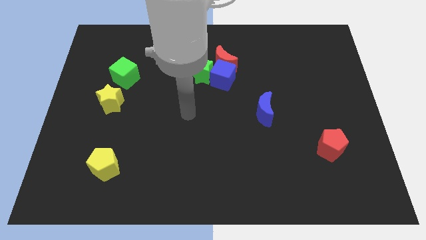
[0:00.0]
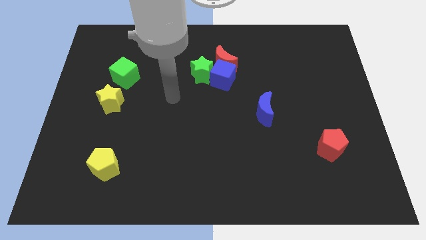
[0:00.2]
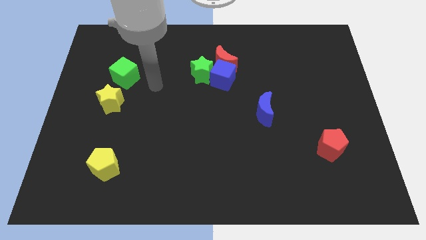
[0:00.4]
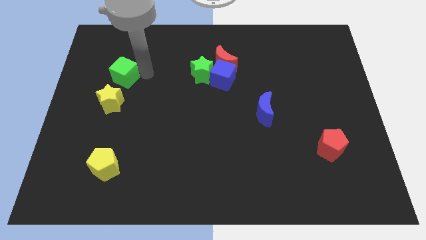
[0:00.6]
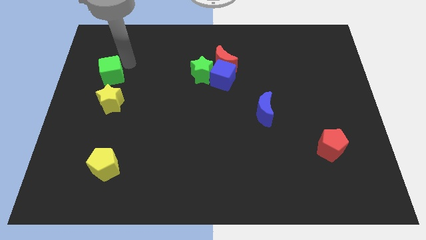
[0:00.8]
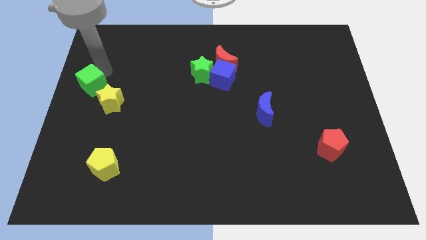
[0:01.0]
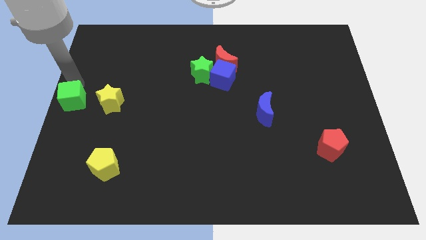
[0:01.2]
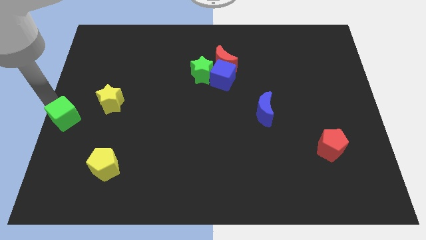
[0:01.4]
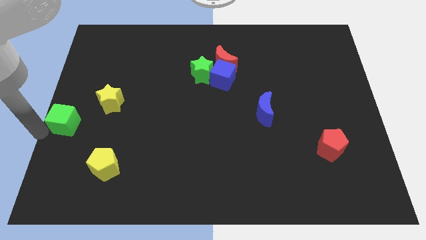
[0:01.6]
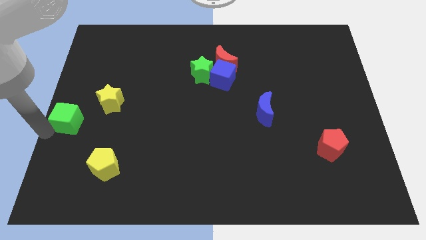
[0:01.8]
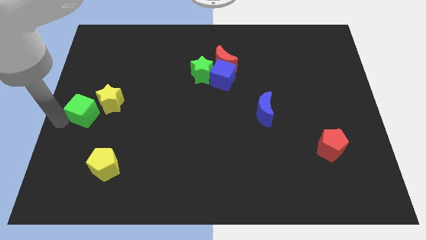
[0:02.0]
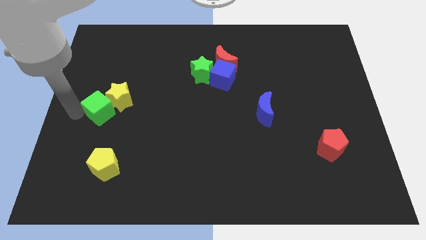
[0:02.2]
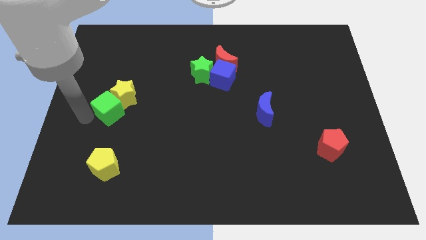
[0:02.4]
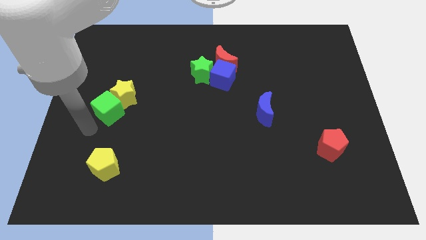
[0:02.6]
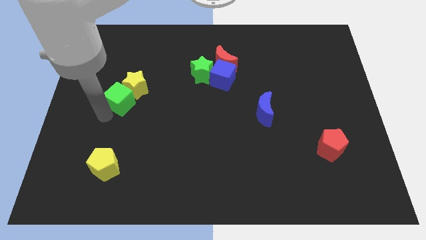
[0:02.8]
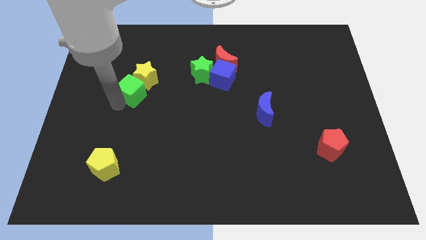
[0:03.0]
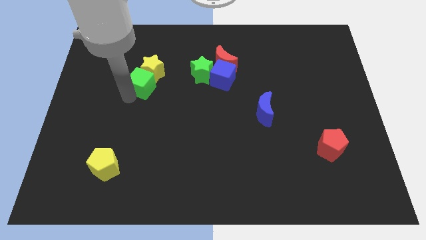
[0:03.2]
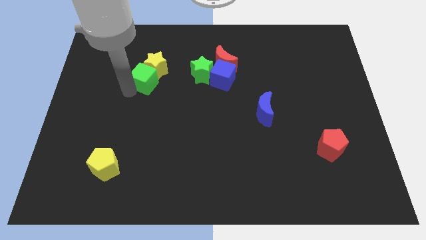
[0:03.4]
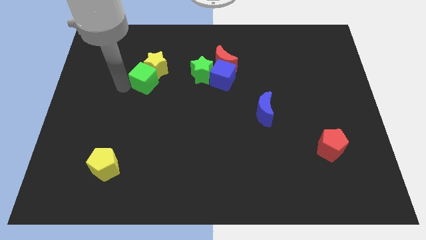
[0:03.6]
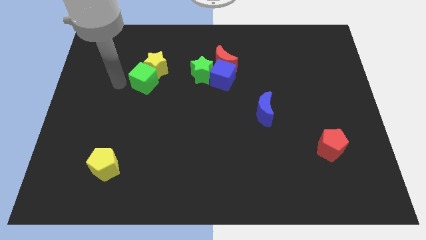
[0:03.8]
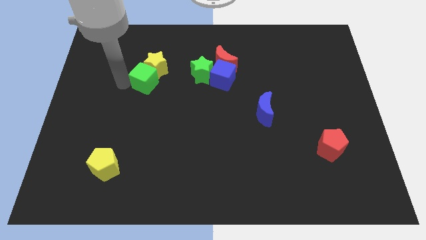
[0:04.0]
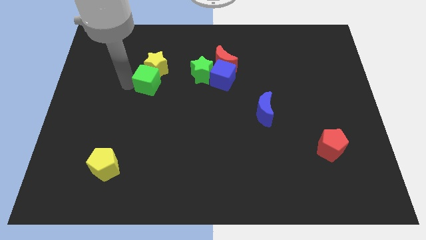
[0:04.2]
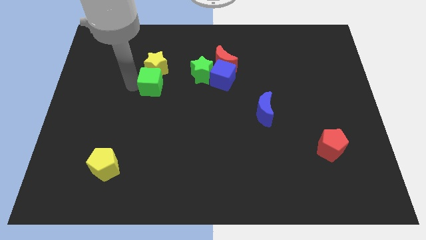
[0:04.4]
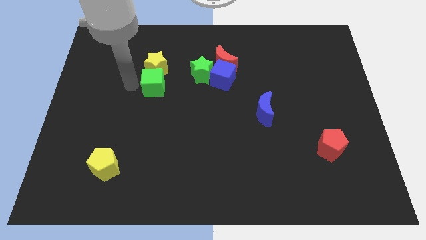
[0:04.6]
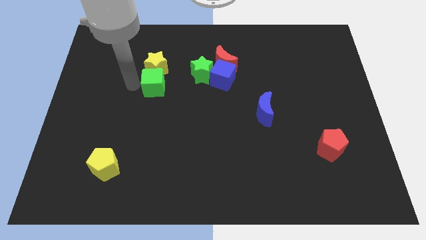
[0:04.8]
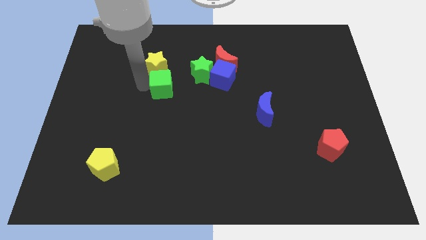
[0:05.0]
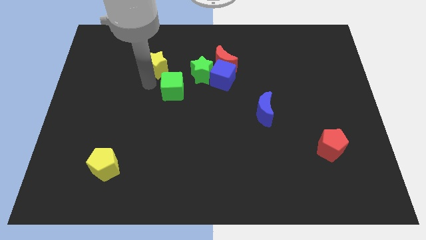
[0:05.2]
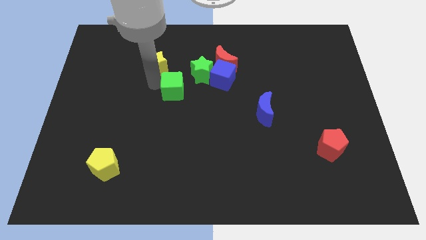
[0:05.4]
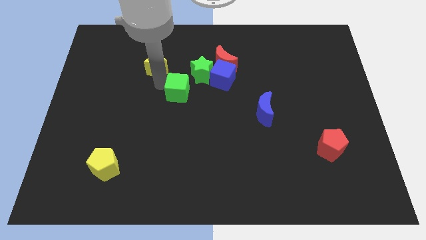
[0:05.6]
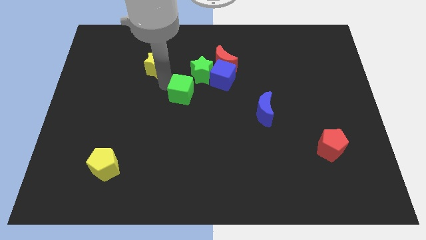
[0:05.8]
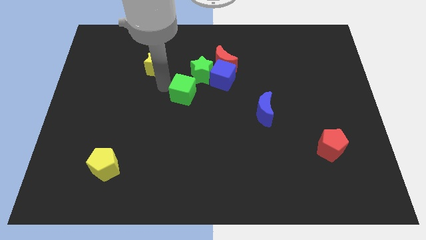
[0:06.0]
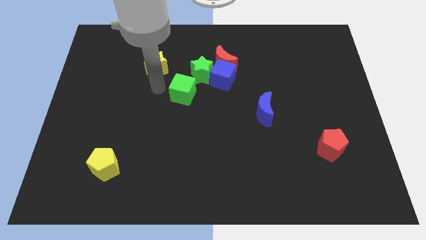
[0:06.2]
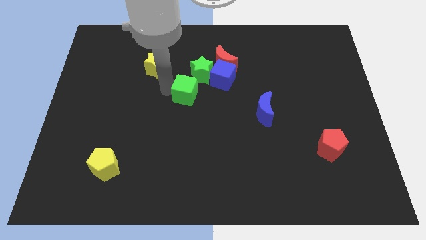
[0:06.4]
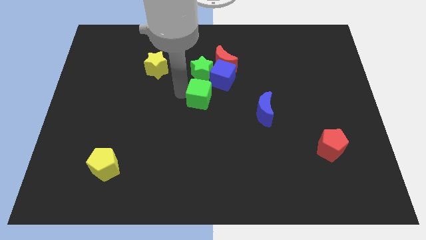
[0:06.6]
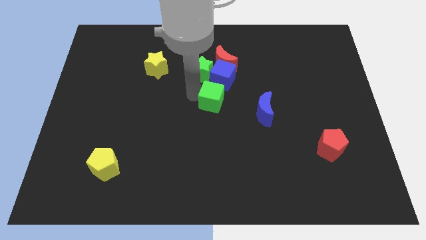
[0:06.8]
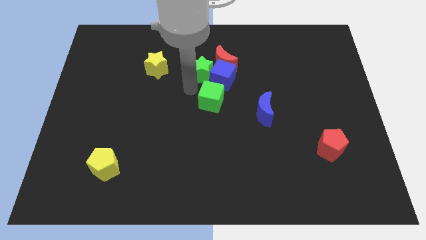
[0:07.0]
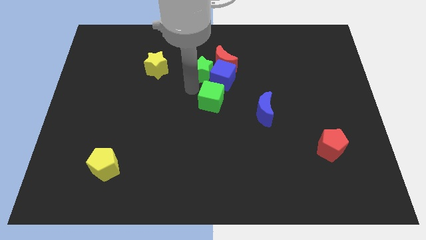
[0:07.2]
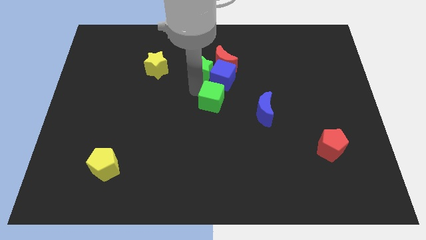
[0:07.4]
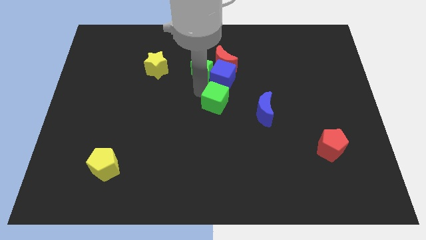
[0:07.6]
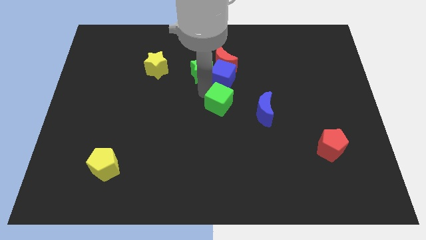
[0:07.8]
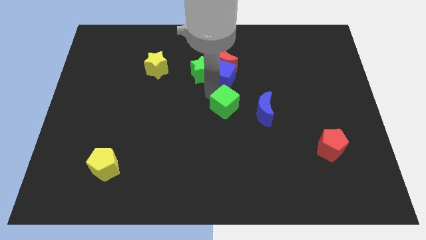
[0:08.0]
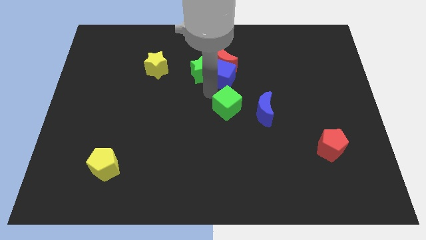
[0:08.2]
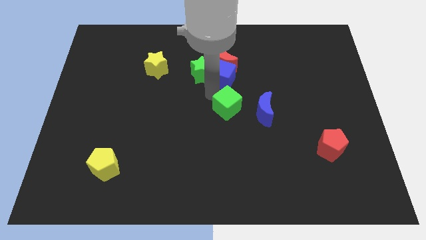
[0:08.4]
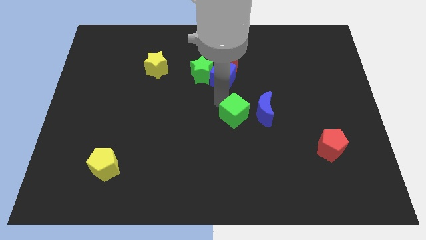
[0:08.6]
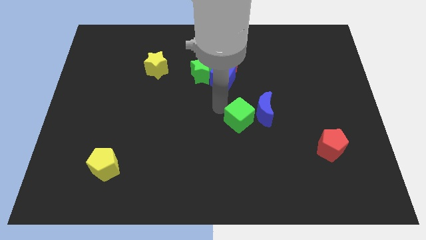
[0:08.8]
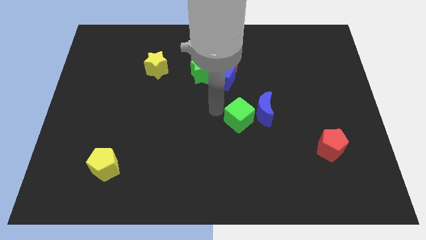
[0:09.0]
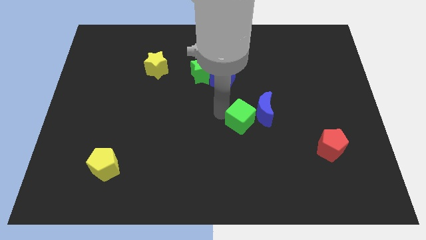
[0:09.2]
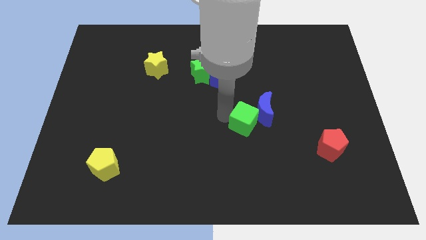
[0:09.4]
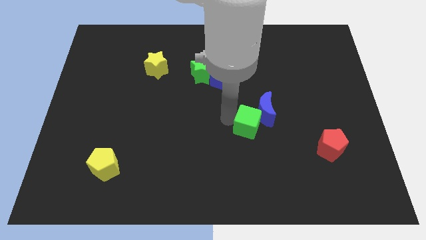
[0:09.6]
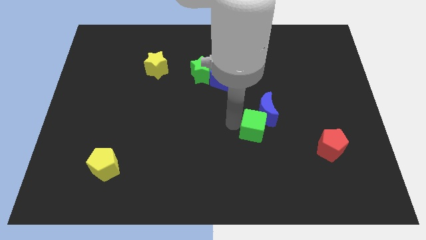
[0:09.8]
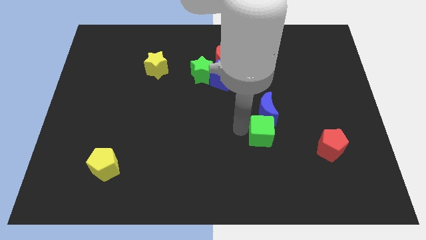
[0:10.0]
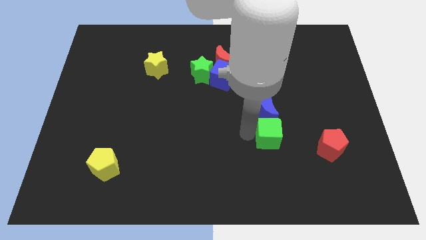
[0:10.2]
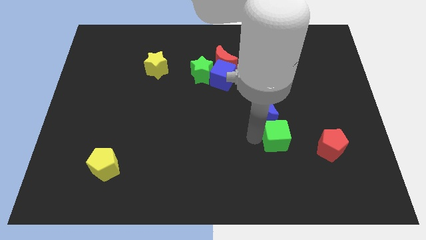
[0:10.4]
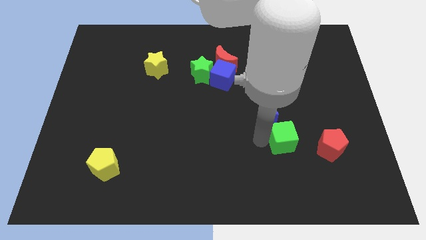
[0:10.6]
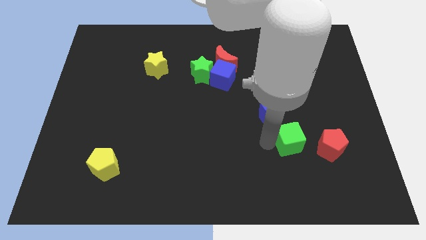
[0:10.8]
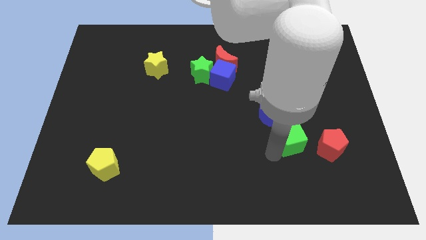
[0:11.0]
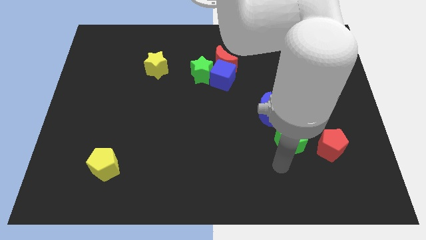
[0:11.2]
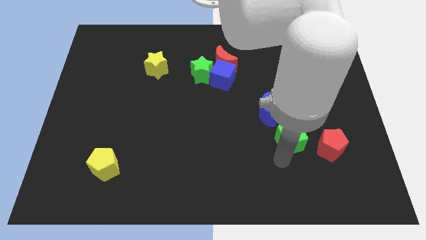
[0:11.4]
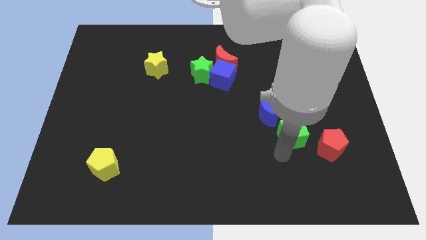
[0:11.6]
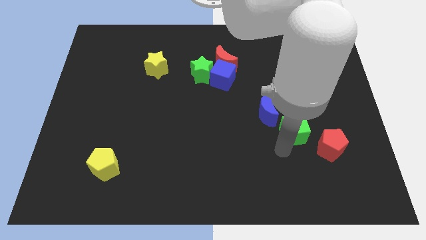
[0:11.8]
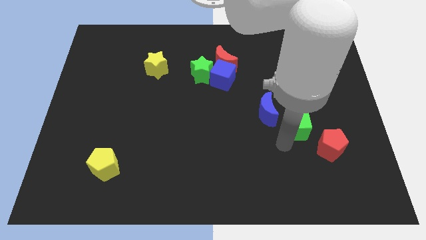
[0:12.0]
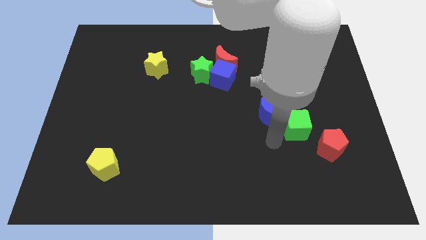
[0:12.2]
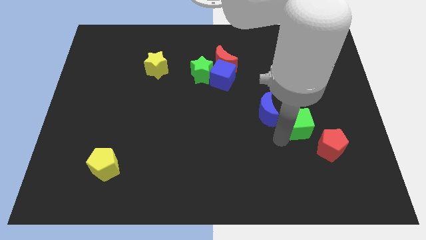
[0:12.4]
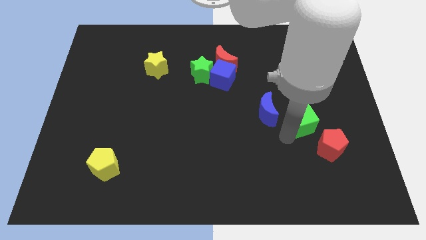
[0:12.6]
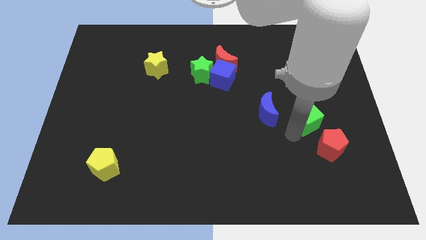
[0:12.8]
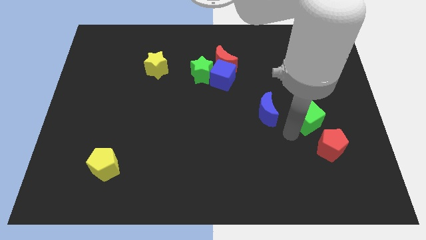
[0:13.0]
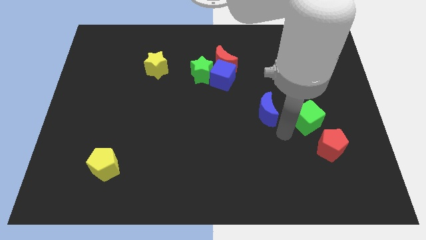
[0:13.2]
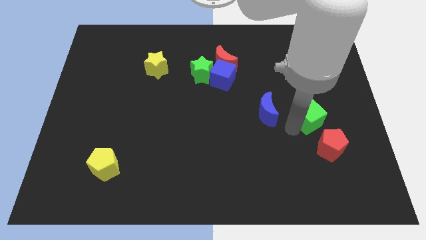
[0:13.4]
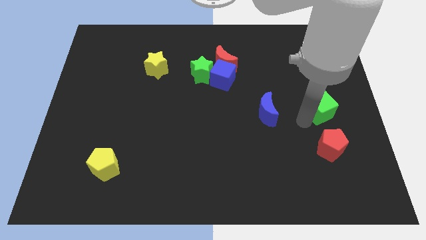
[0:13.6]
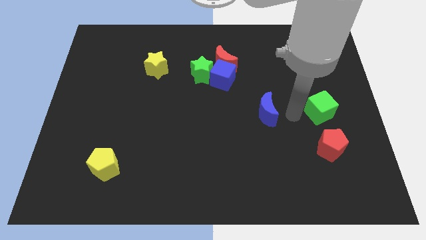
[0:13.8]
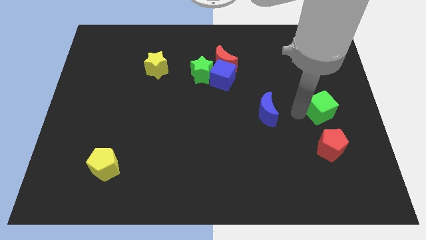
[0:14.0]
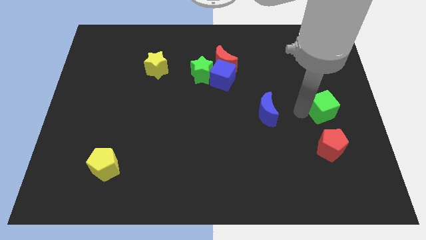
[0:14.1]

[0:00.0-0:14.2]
move the green cube to the center right
